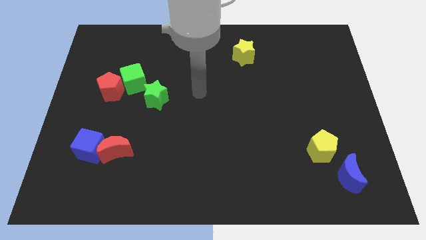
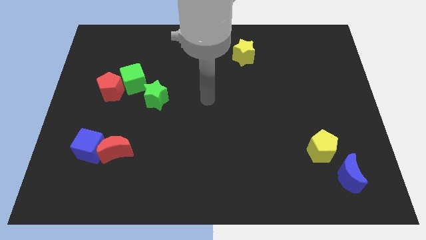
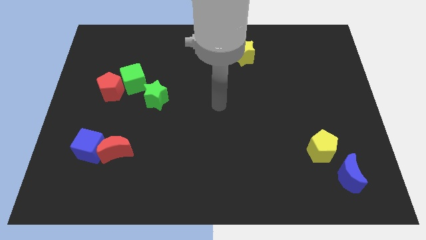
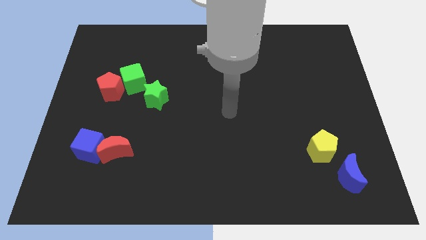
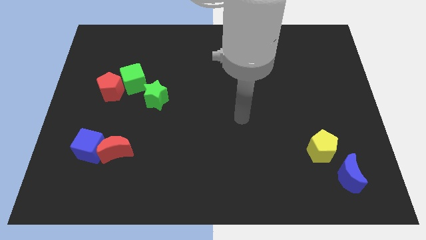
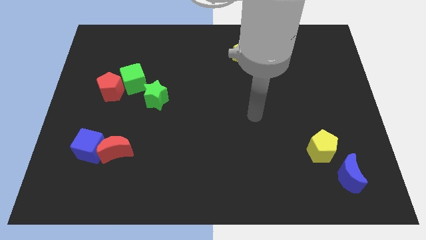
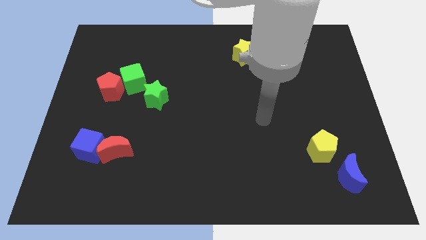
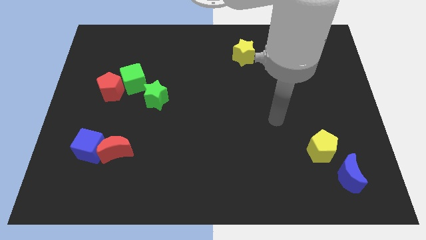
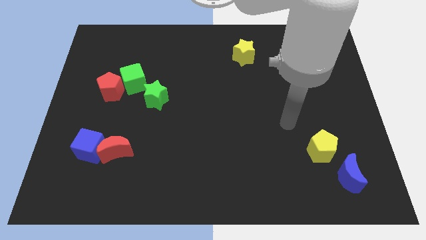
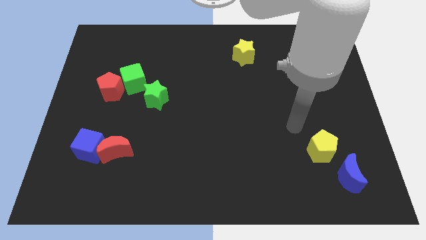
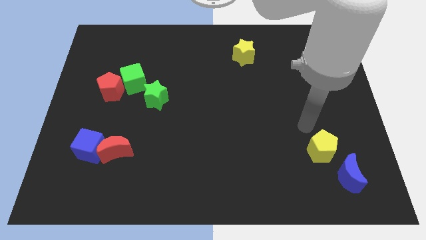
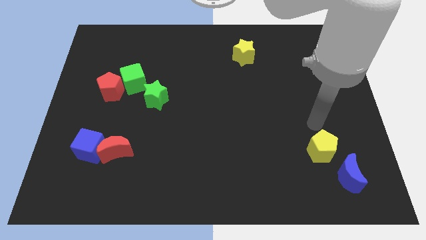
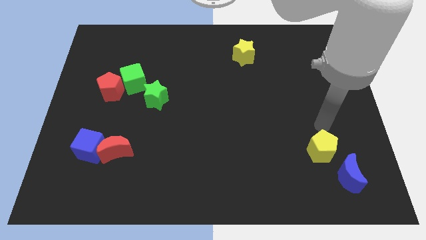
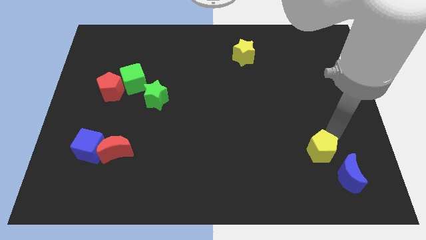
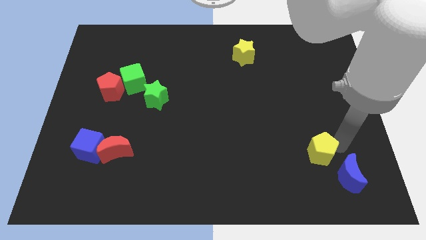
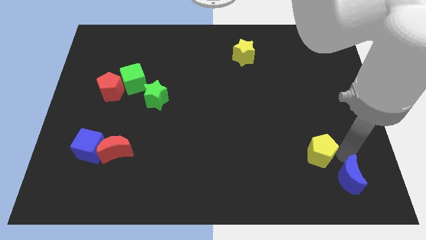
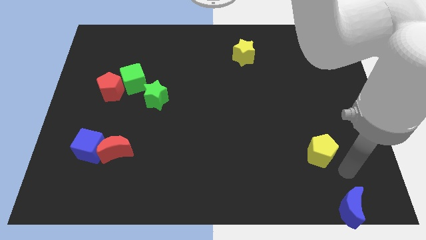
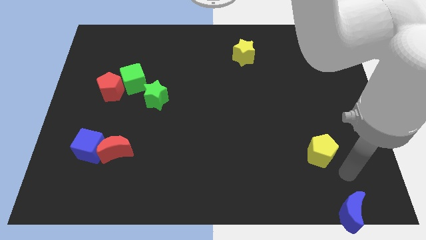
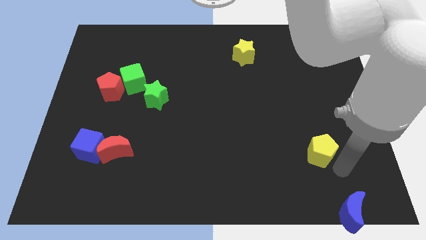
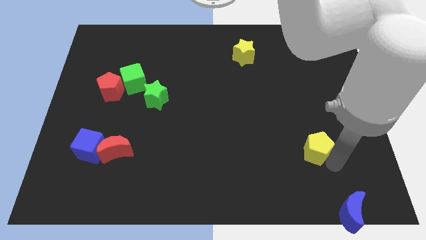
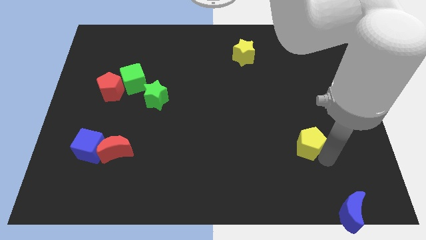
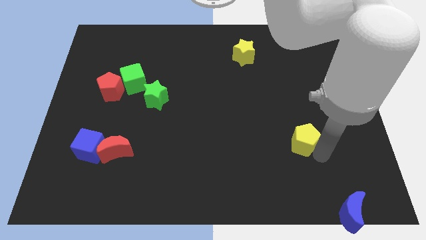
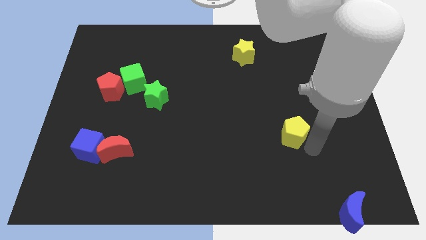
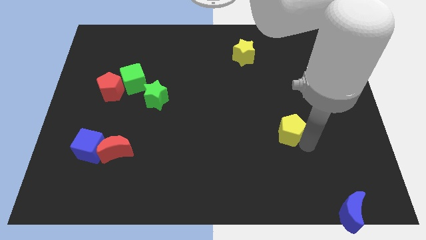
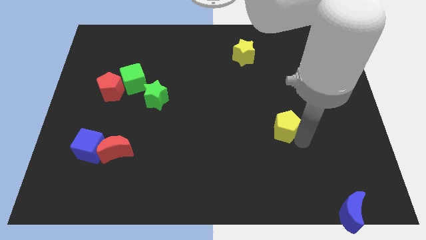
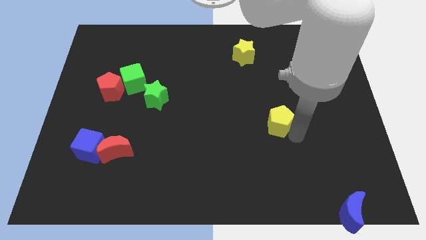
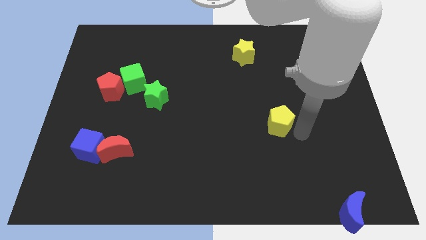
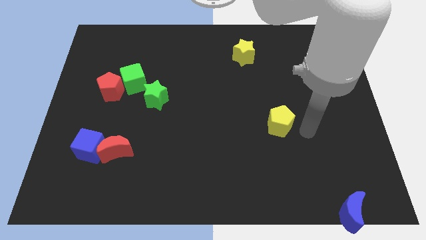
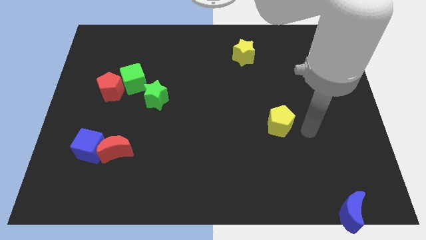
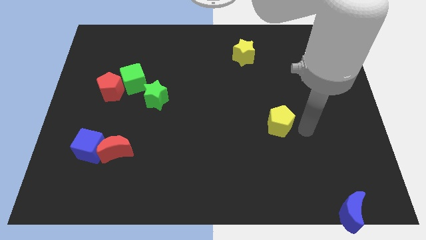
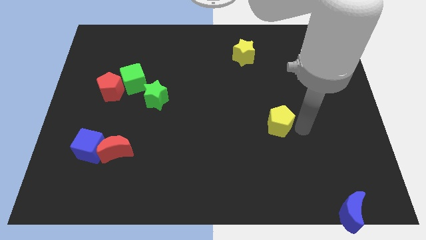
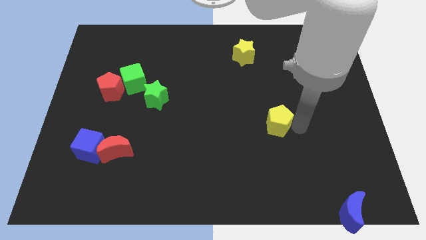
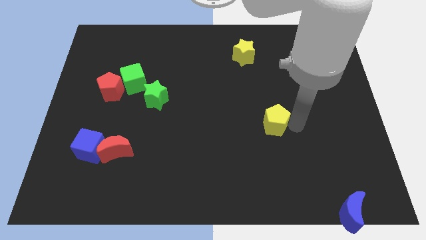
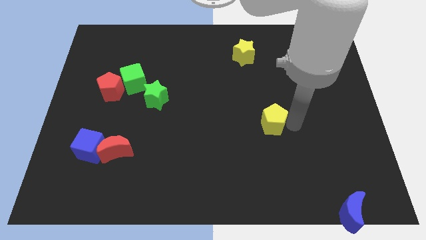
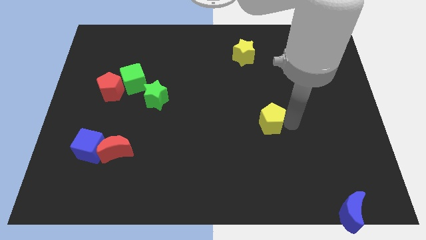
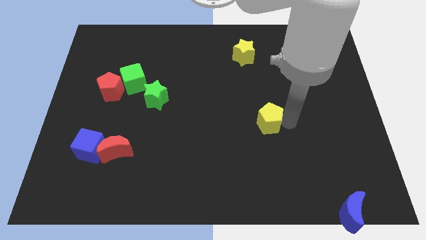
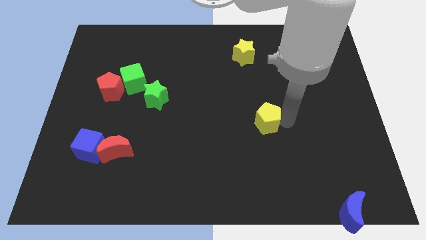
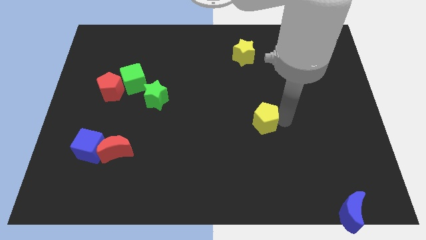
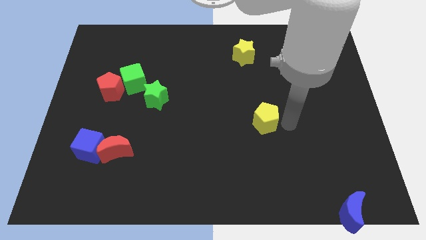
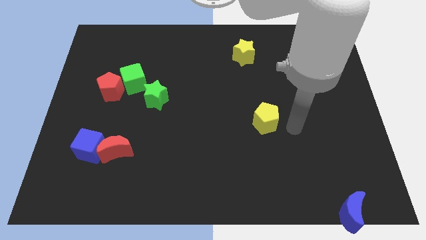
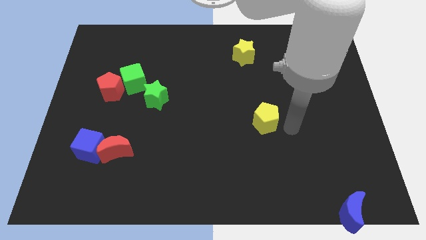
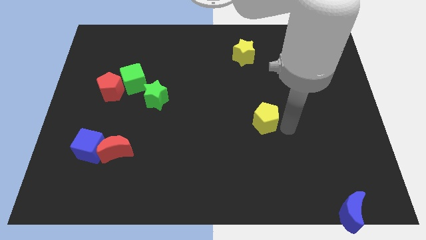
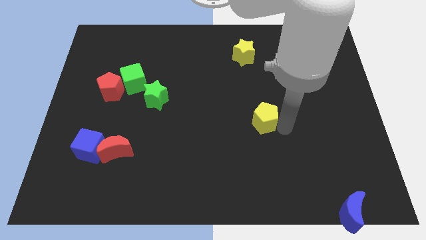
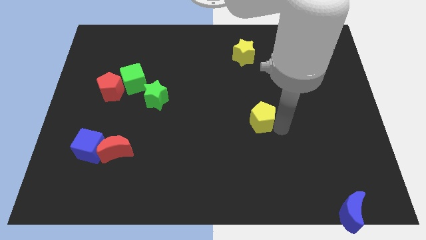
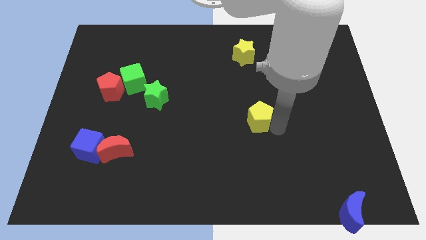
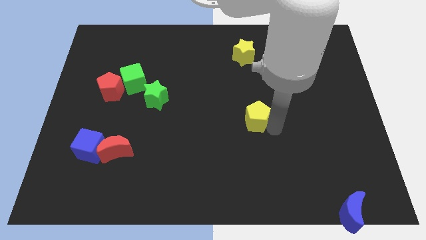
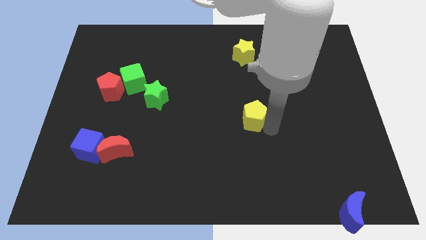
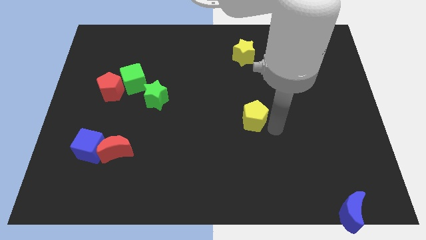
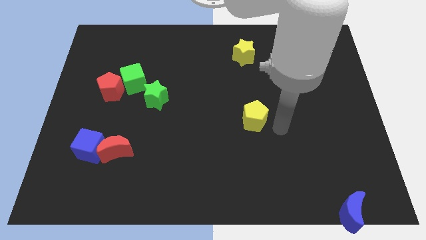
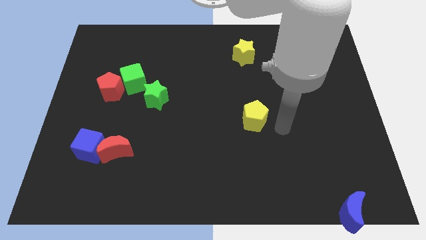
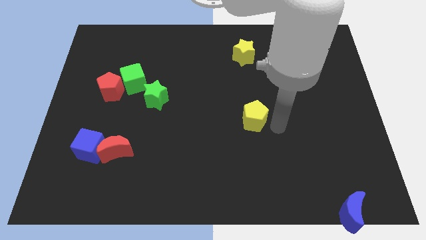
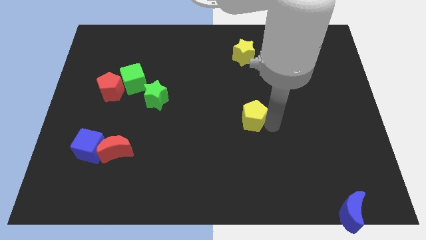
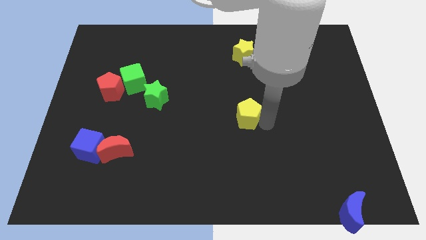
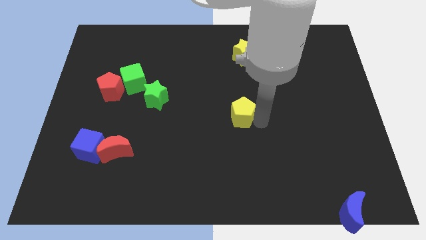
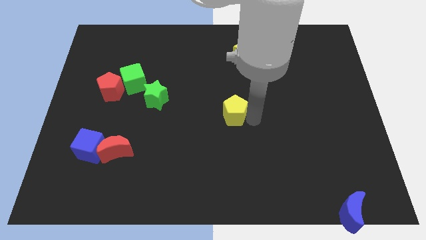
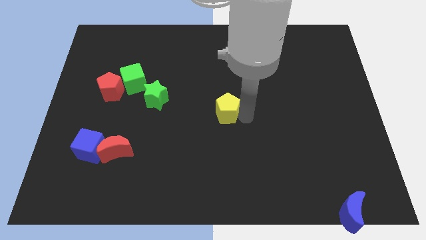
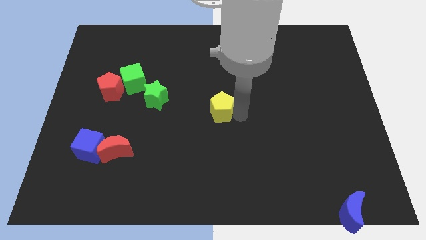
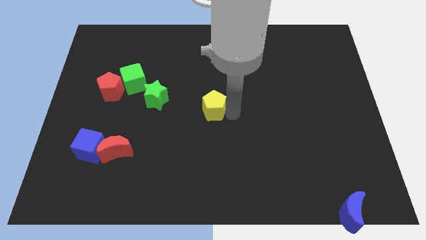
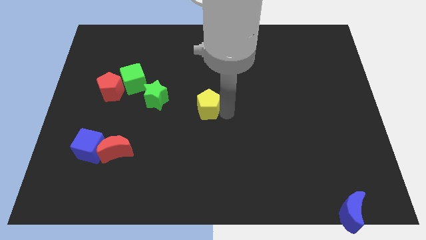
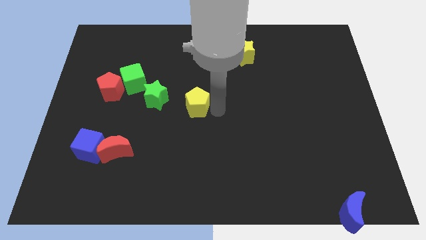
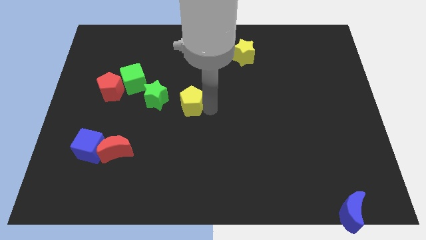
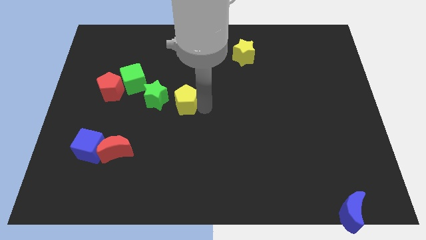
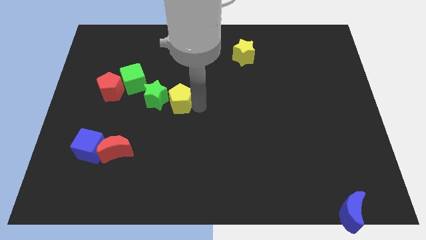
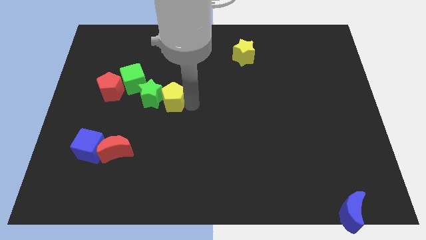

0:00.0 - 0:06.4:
move the yellow pentagon next to the green star

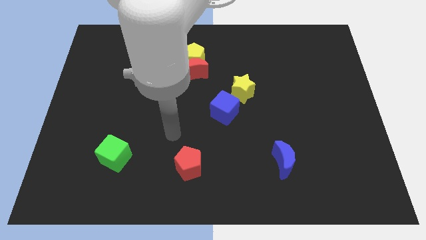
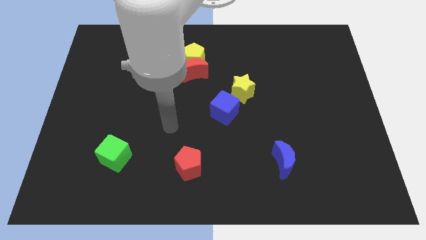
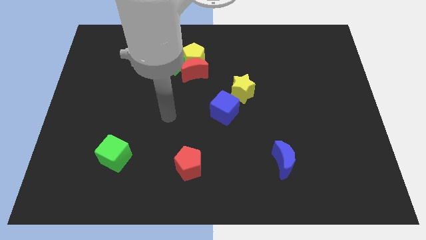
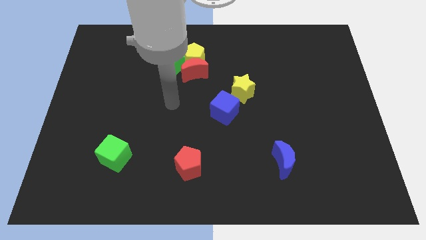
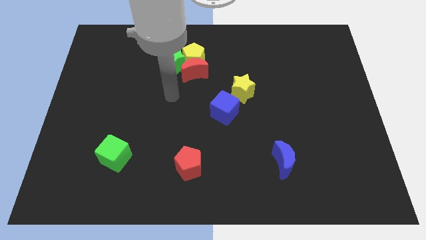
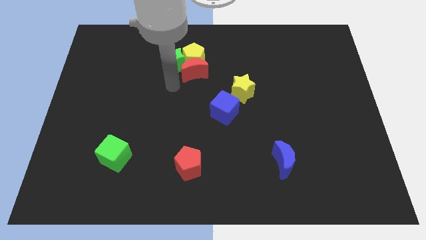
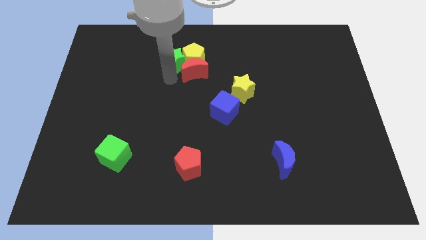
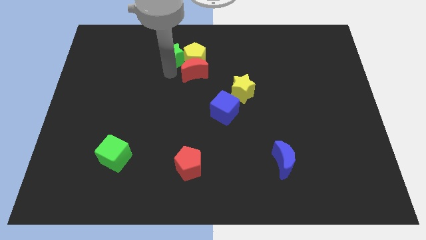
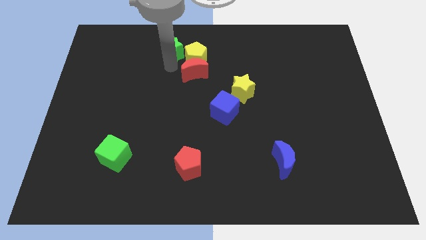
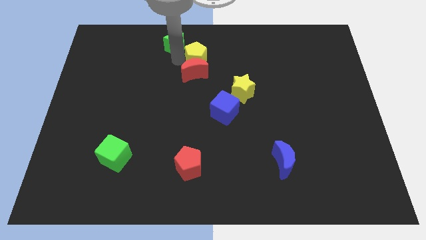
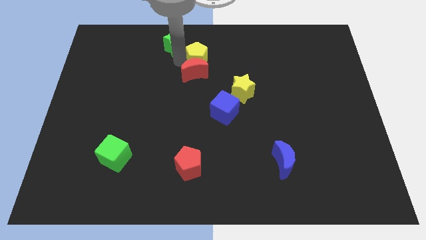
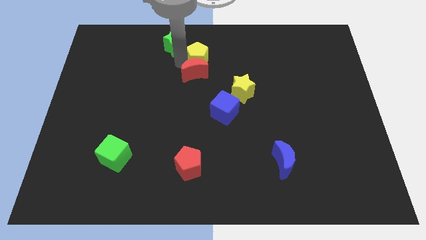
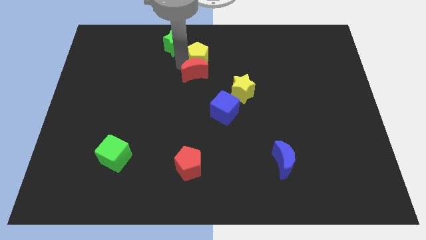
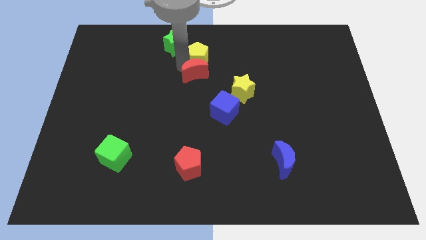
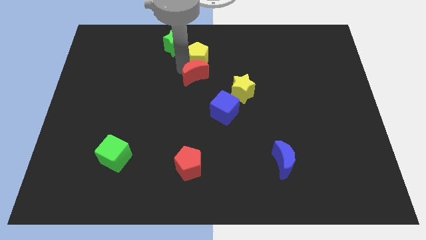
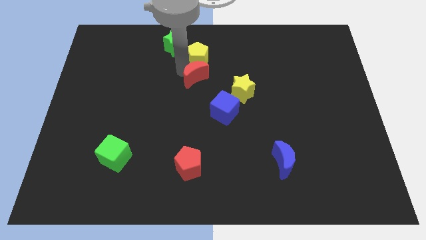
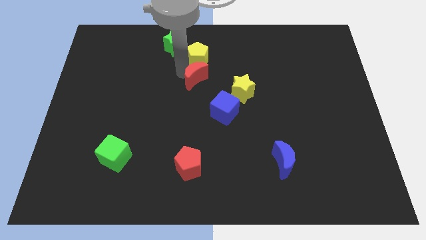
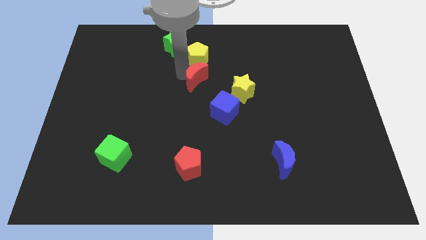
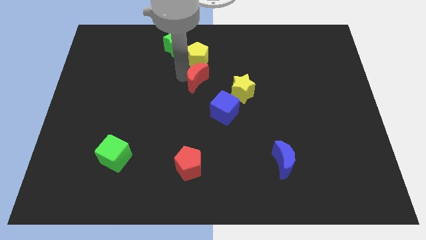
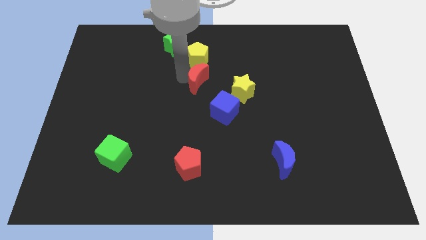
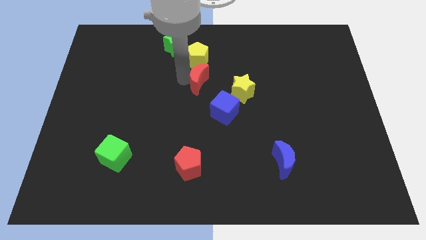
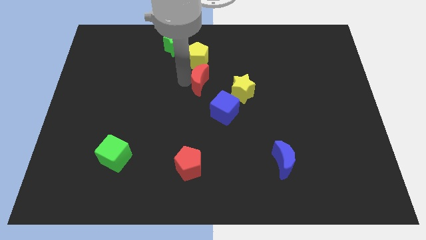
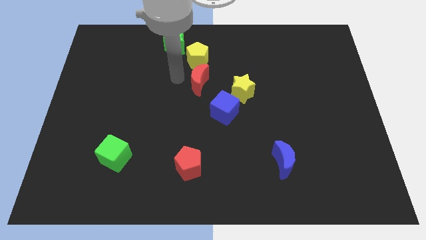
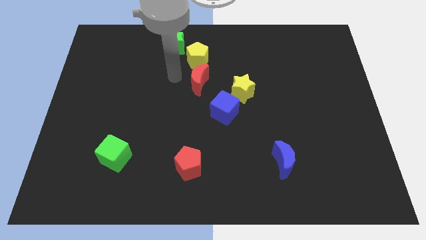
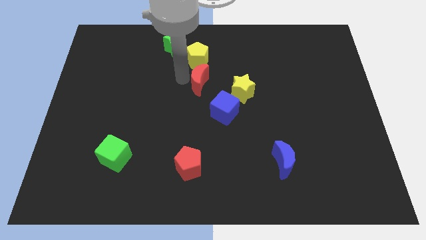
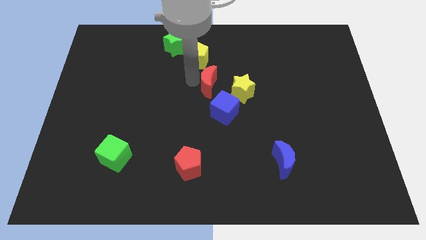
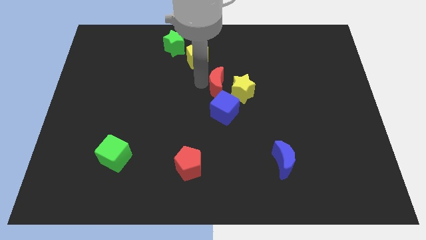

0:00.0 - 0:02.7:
slide the red moon close to the yellow star
